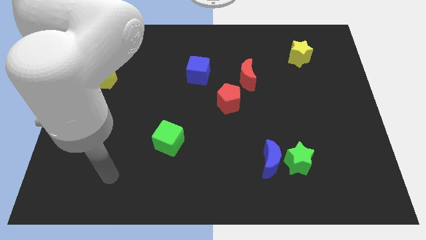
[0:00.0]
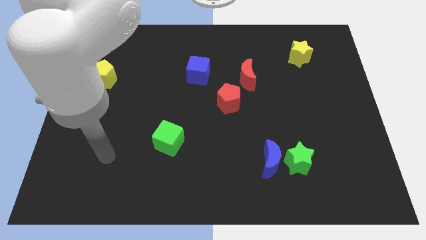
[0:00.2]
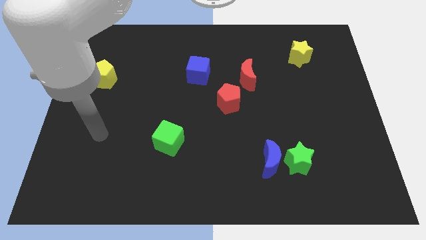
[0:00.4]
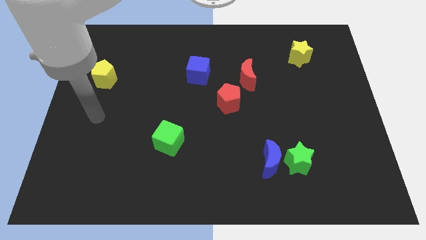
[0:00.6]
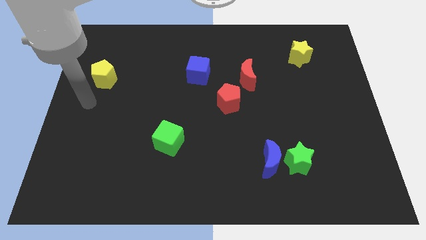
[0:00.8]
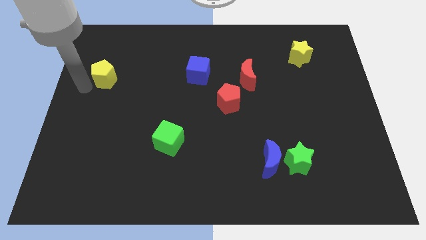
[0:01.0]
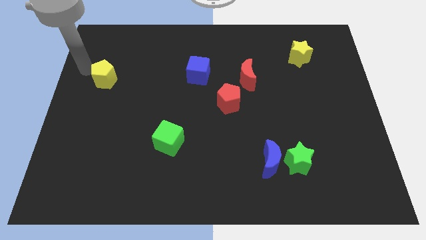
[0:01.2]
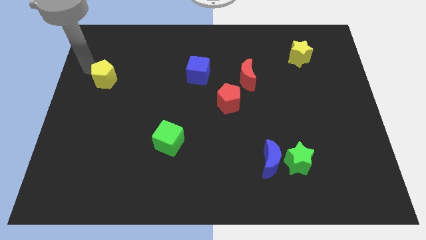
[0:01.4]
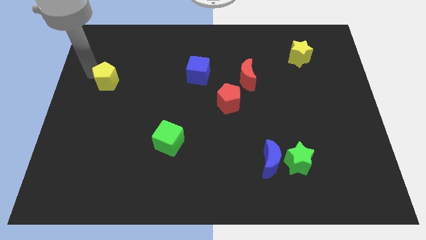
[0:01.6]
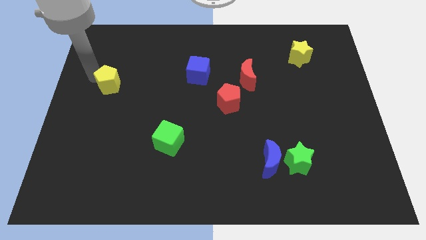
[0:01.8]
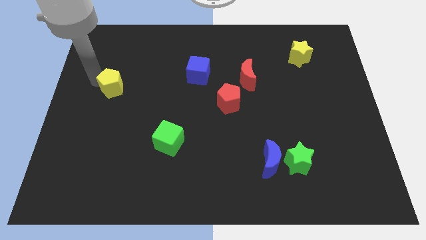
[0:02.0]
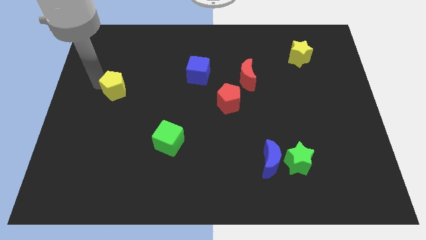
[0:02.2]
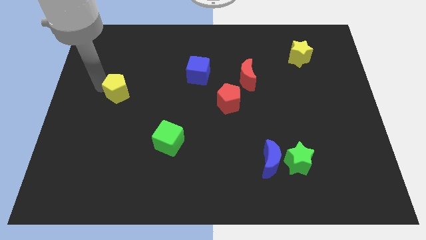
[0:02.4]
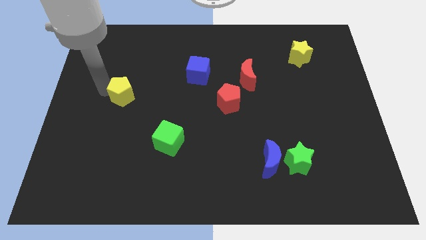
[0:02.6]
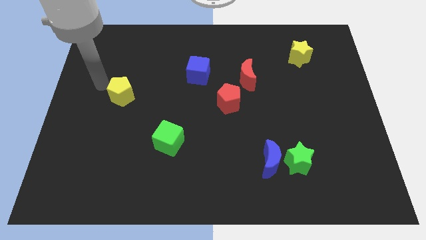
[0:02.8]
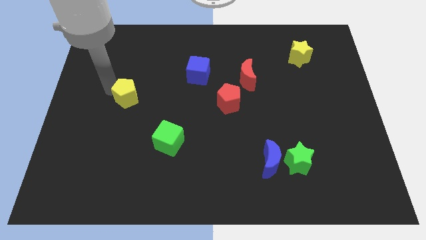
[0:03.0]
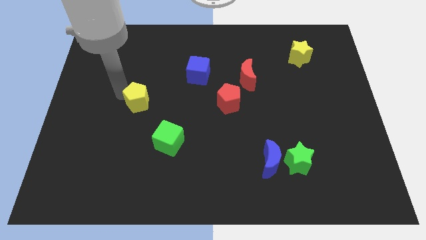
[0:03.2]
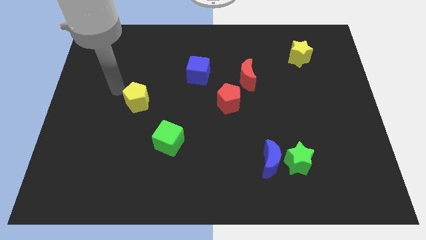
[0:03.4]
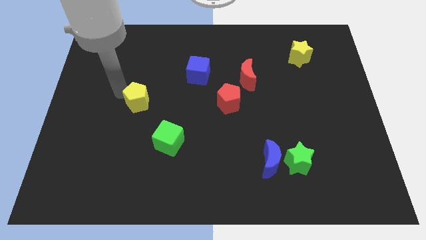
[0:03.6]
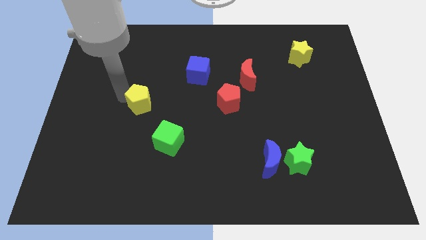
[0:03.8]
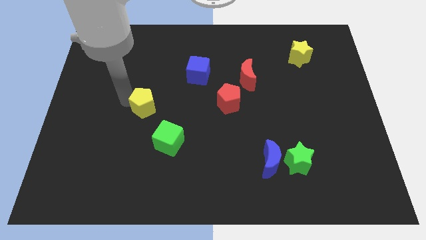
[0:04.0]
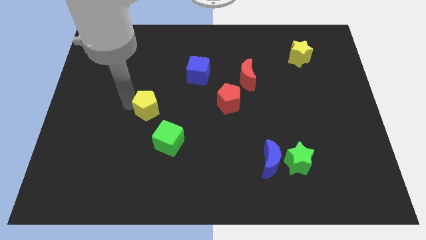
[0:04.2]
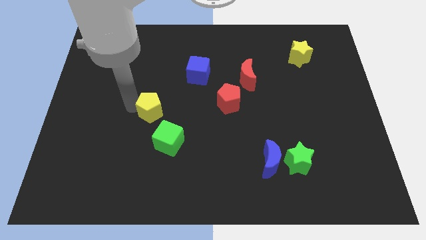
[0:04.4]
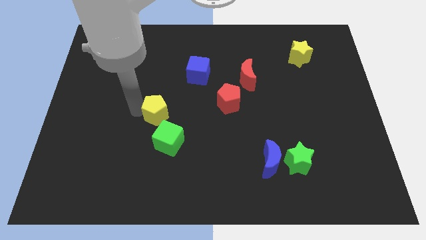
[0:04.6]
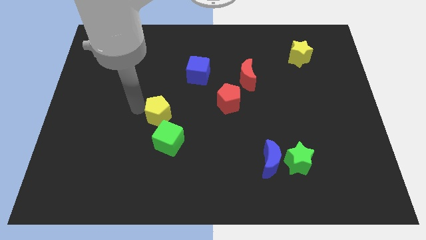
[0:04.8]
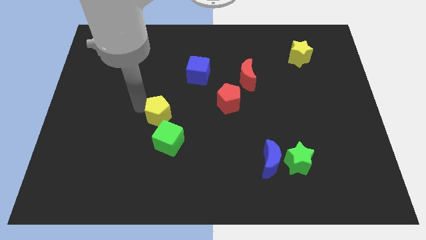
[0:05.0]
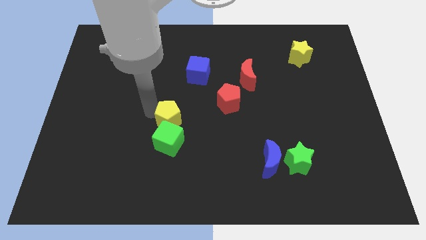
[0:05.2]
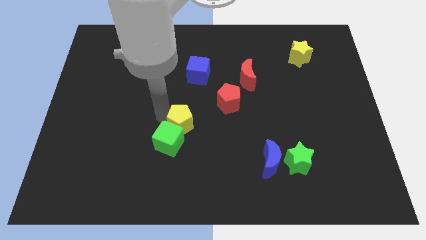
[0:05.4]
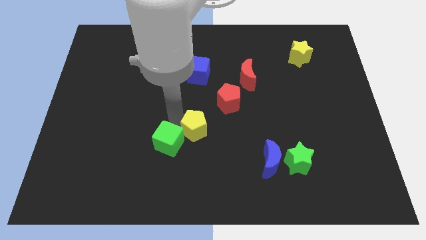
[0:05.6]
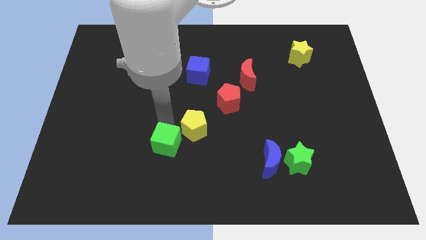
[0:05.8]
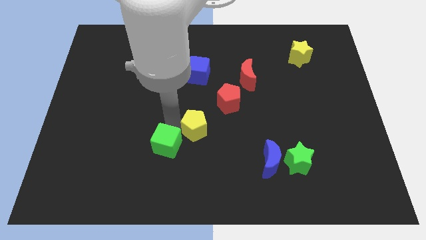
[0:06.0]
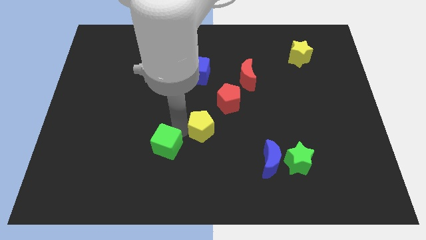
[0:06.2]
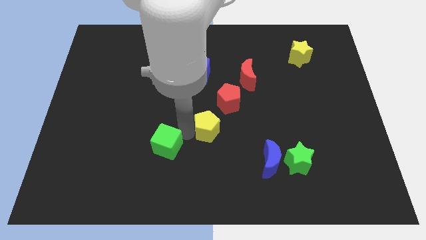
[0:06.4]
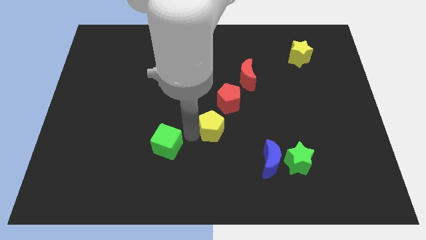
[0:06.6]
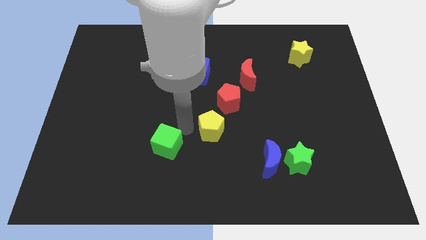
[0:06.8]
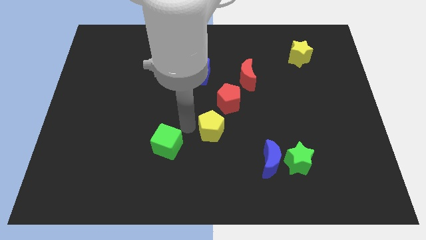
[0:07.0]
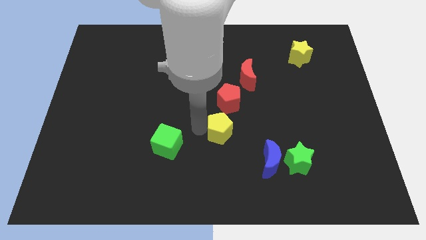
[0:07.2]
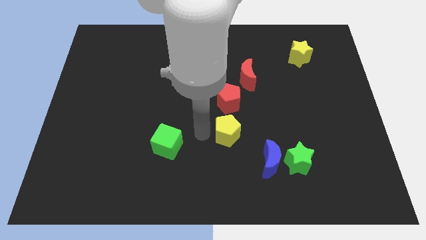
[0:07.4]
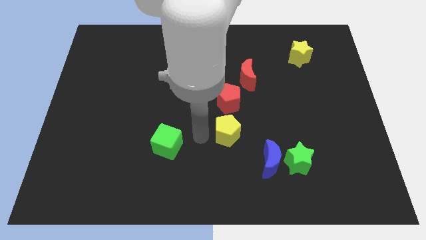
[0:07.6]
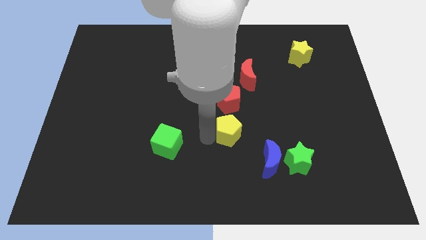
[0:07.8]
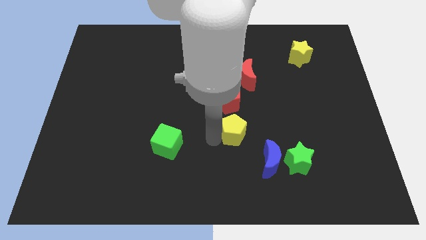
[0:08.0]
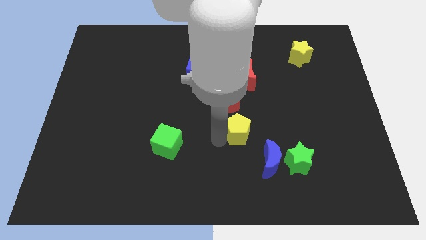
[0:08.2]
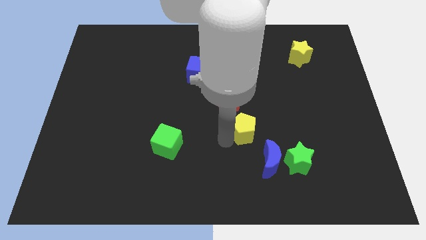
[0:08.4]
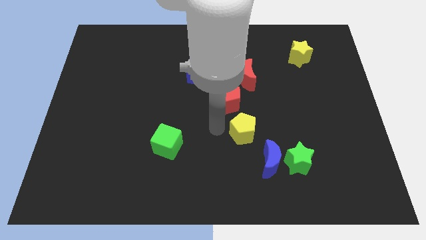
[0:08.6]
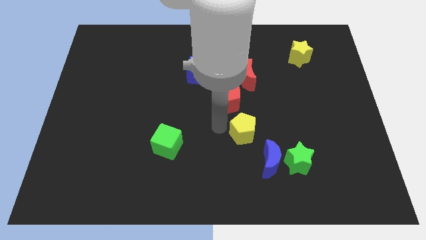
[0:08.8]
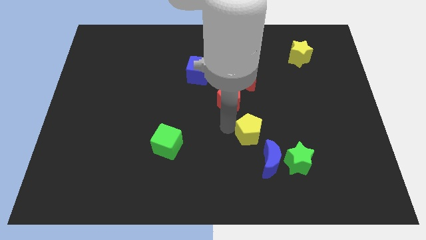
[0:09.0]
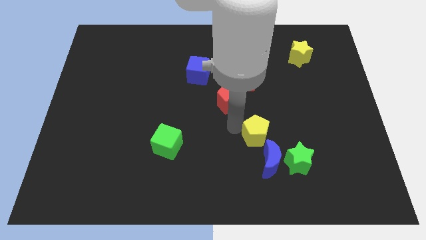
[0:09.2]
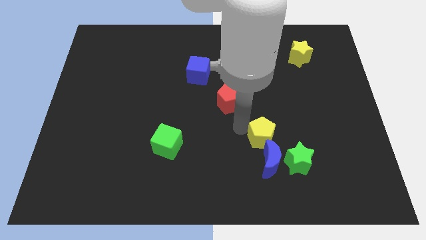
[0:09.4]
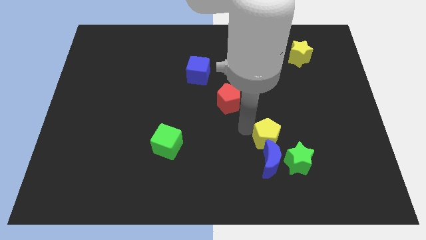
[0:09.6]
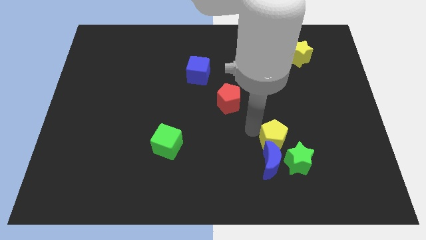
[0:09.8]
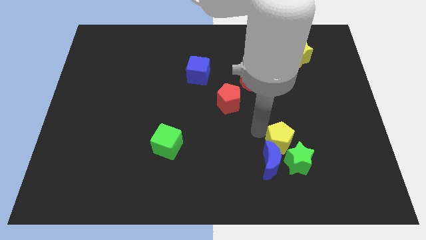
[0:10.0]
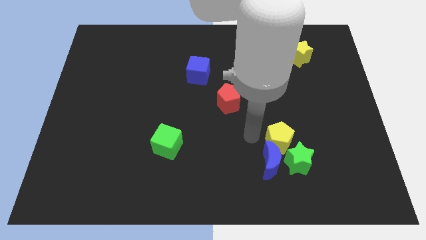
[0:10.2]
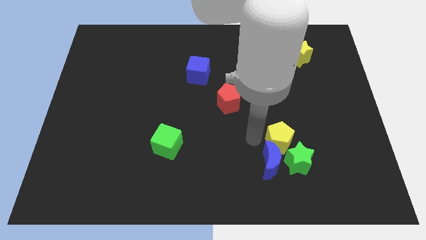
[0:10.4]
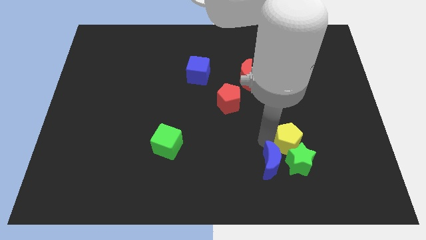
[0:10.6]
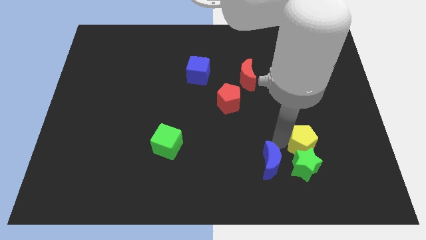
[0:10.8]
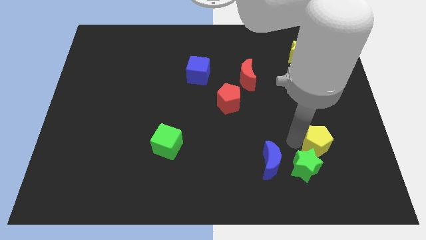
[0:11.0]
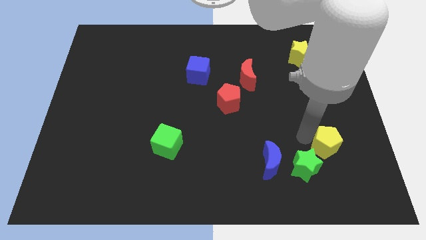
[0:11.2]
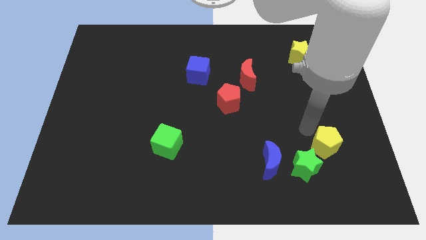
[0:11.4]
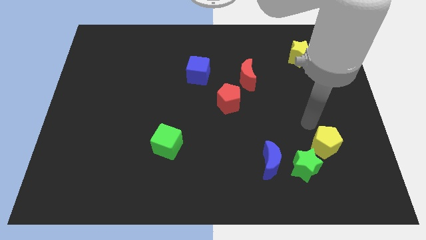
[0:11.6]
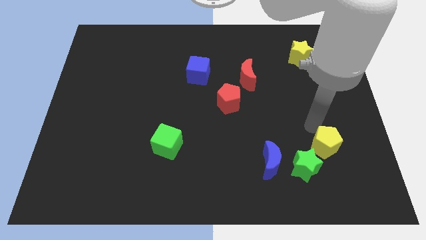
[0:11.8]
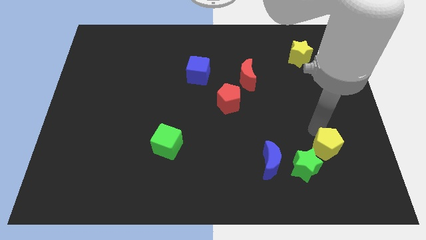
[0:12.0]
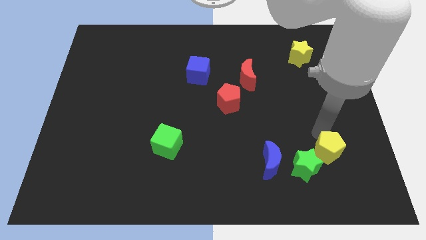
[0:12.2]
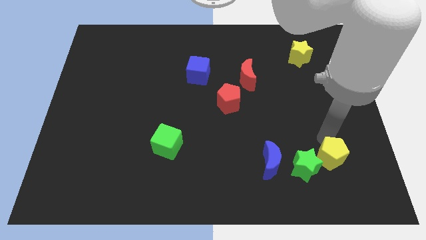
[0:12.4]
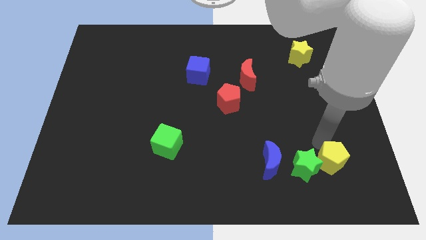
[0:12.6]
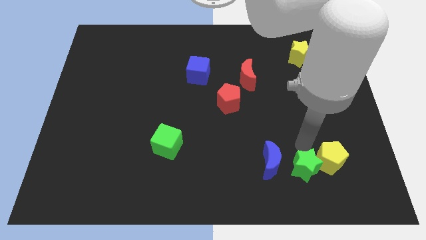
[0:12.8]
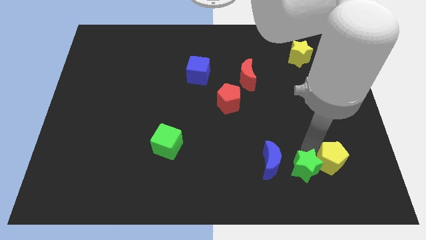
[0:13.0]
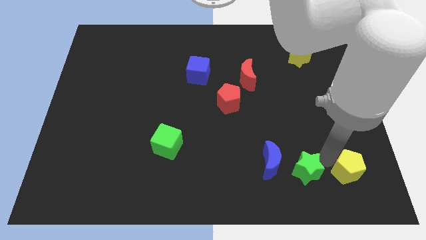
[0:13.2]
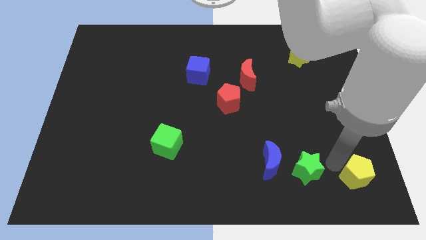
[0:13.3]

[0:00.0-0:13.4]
push the yellow pentagon to the bottom right corner

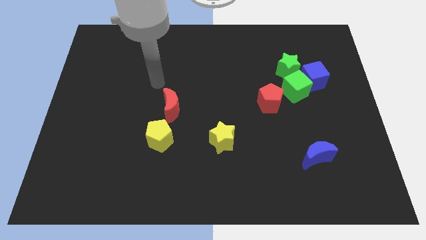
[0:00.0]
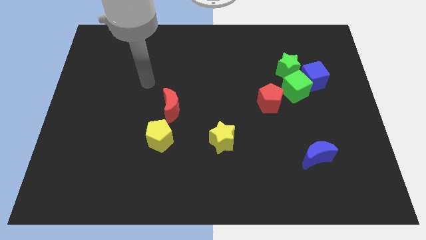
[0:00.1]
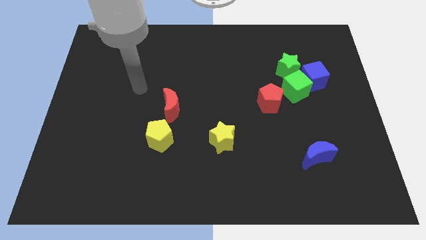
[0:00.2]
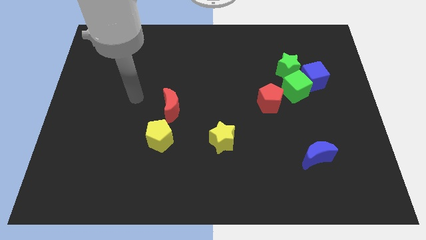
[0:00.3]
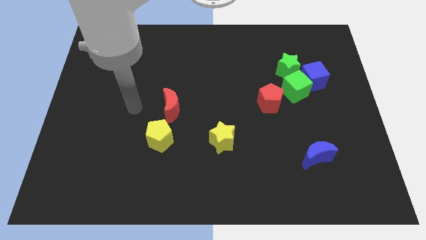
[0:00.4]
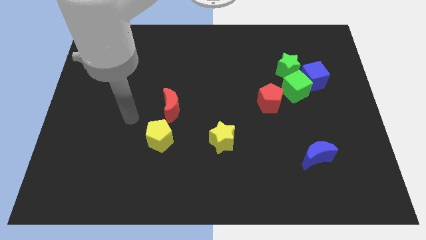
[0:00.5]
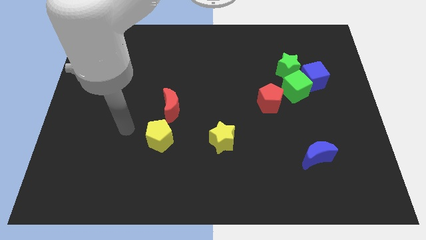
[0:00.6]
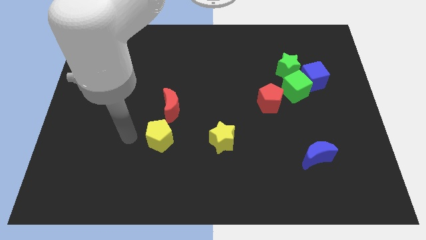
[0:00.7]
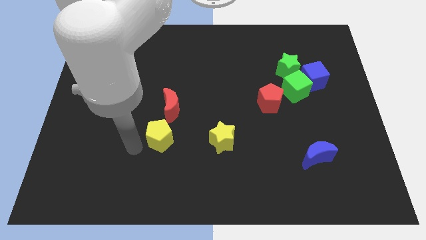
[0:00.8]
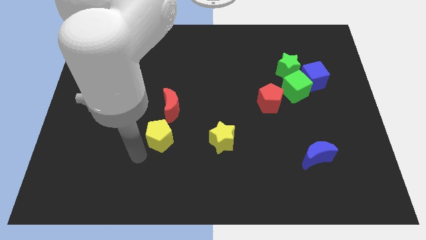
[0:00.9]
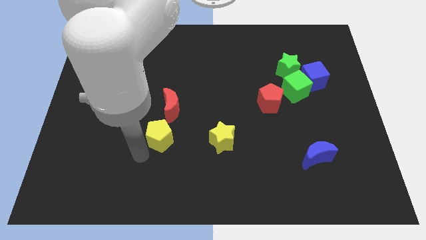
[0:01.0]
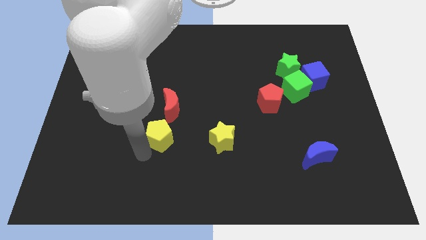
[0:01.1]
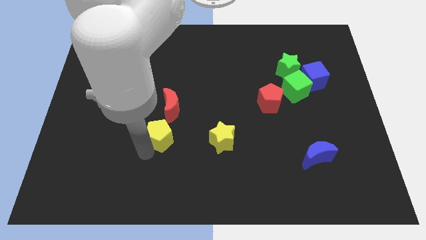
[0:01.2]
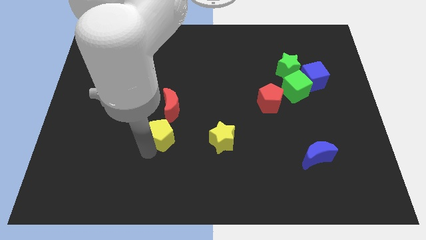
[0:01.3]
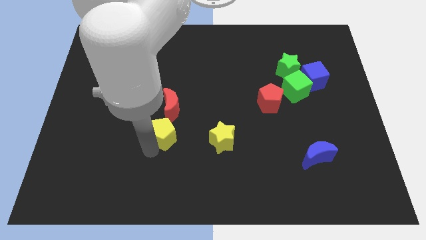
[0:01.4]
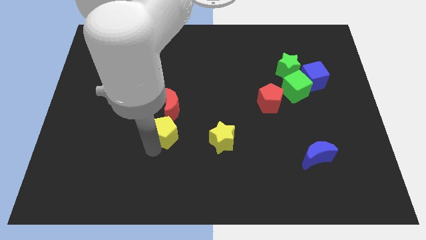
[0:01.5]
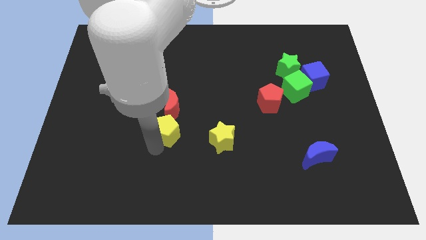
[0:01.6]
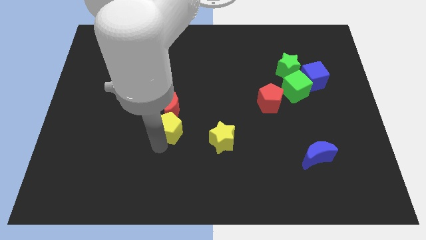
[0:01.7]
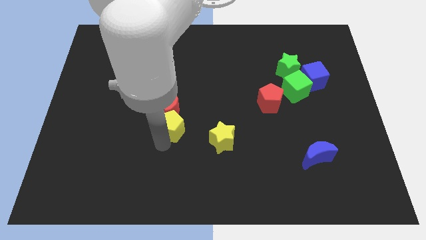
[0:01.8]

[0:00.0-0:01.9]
slide the yellow pentagon to the center
